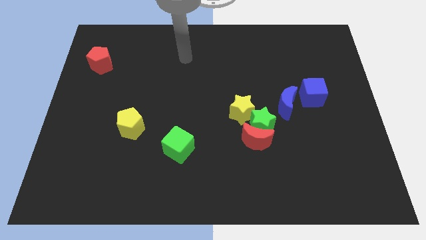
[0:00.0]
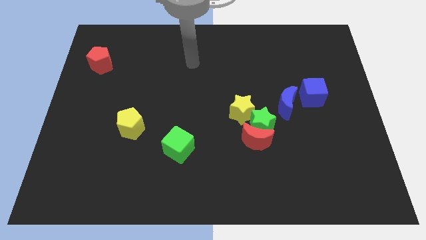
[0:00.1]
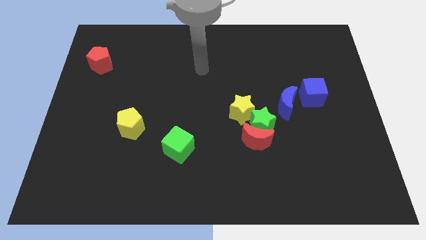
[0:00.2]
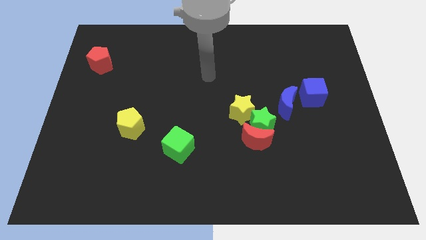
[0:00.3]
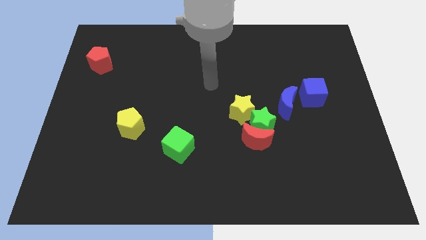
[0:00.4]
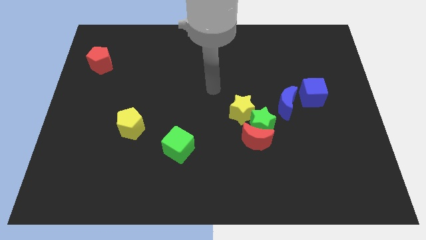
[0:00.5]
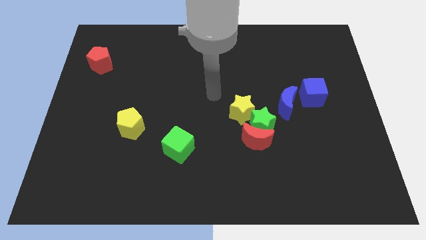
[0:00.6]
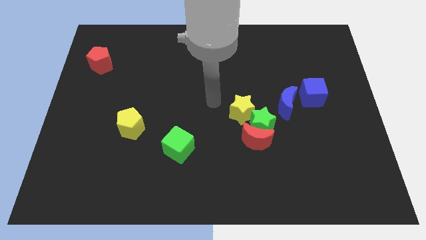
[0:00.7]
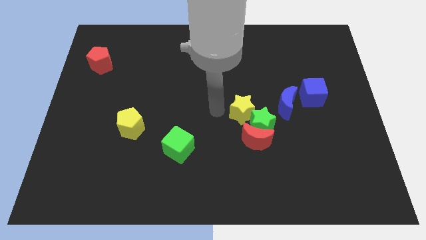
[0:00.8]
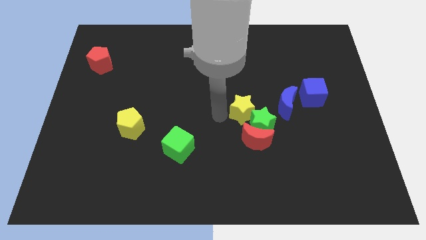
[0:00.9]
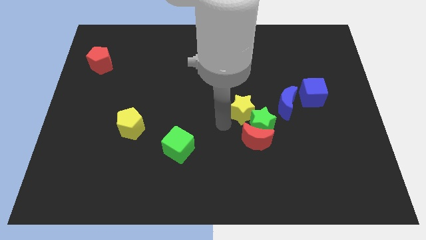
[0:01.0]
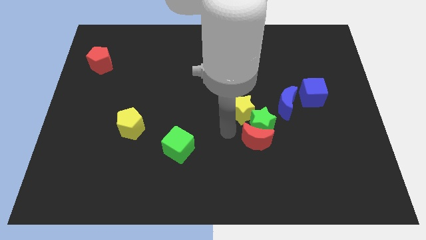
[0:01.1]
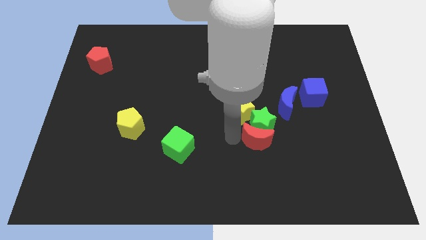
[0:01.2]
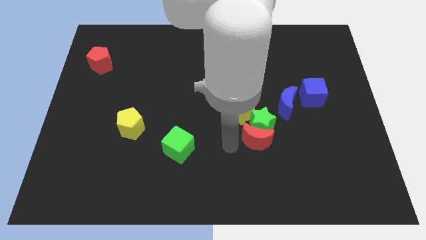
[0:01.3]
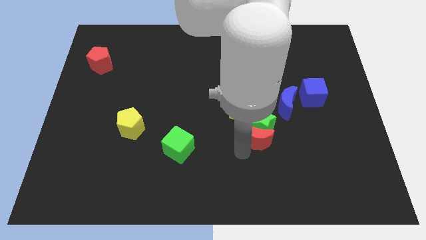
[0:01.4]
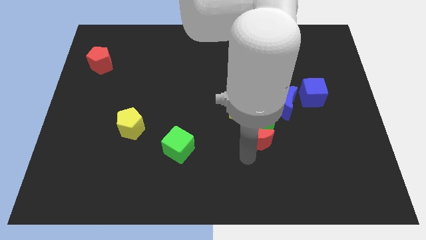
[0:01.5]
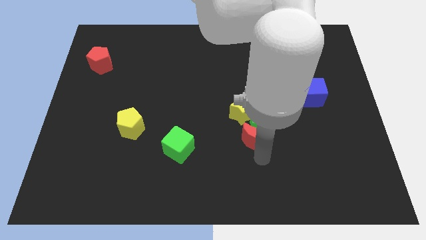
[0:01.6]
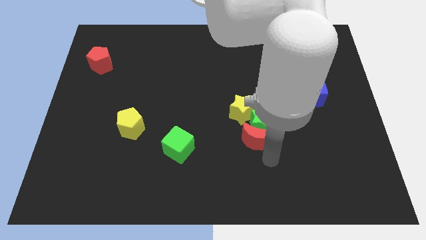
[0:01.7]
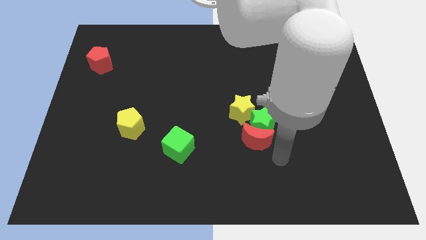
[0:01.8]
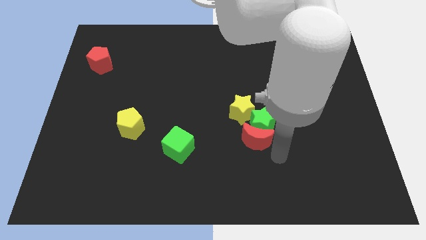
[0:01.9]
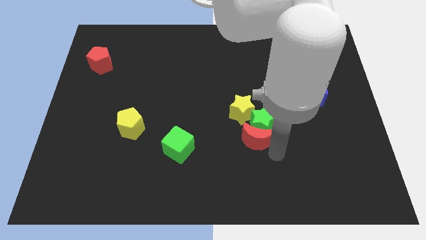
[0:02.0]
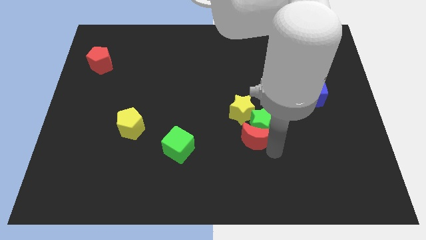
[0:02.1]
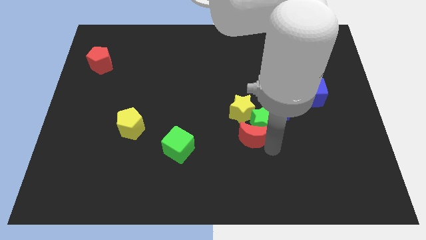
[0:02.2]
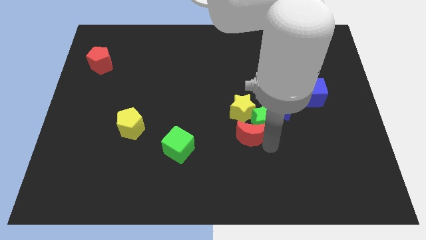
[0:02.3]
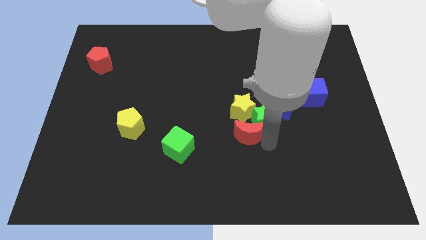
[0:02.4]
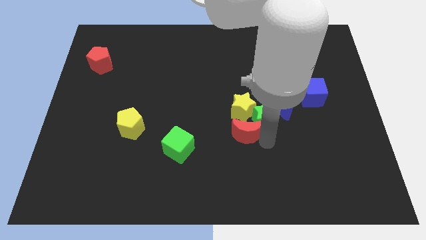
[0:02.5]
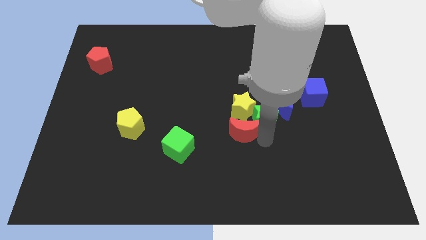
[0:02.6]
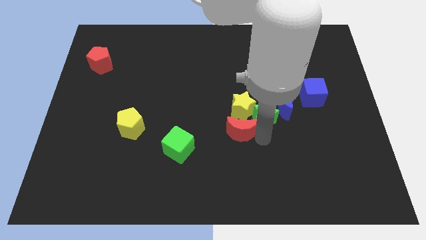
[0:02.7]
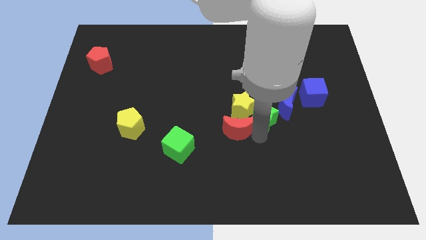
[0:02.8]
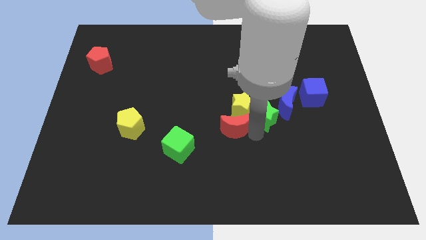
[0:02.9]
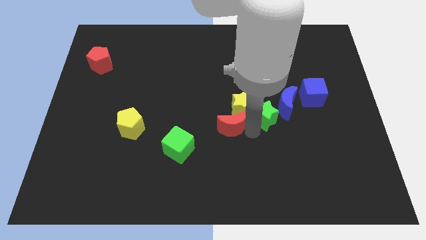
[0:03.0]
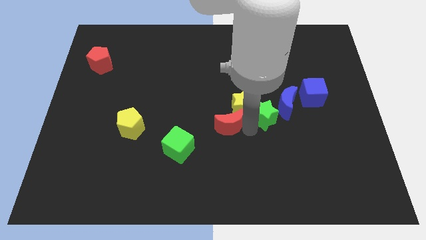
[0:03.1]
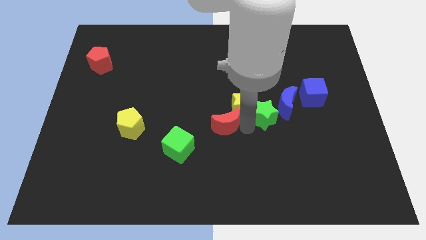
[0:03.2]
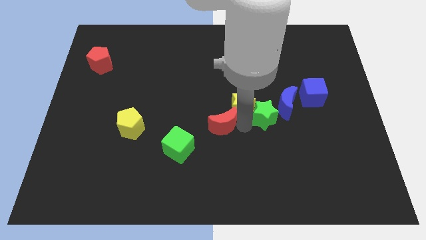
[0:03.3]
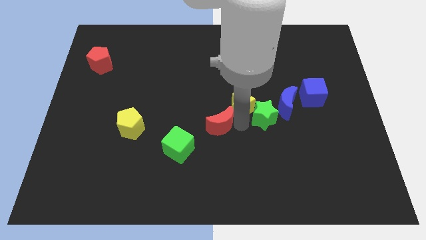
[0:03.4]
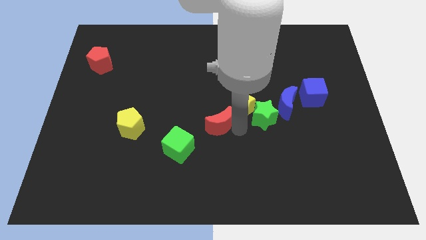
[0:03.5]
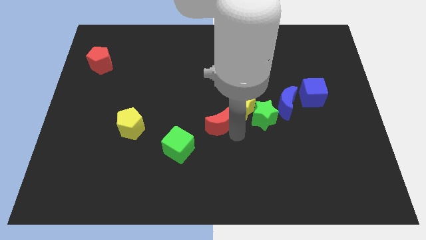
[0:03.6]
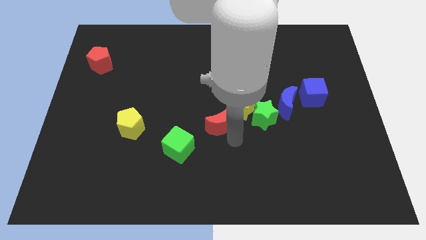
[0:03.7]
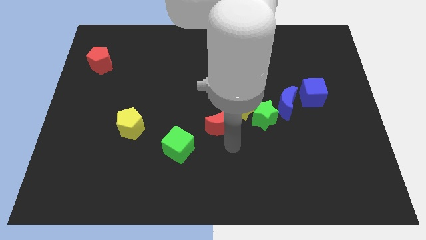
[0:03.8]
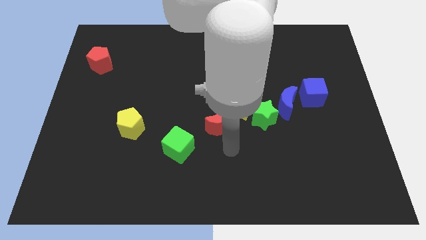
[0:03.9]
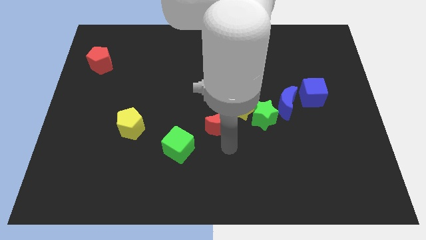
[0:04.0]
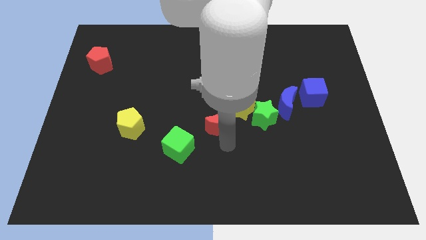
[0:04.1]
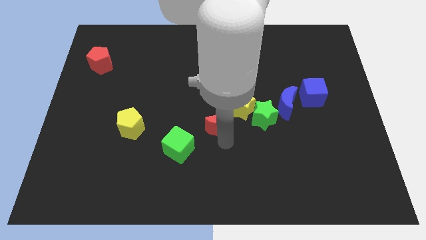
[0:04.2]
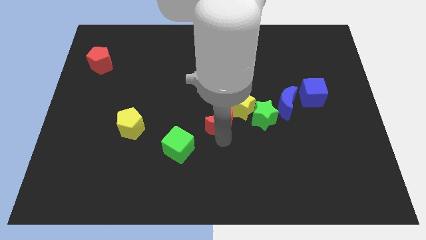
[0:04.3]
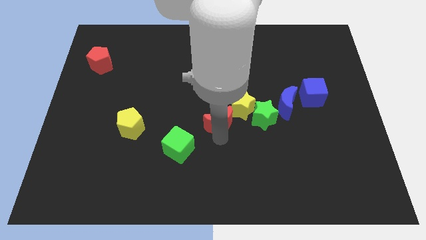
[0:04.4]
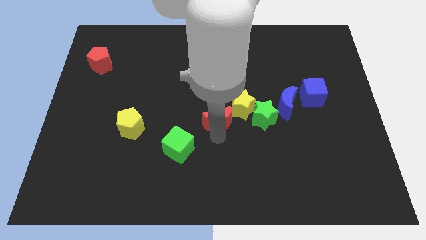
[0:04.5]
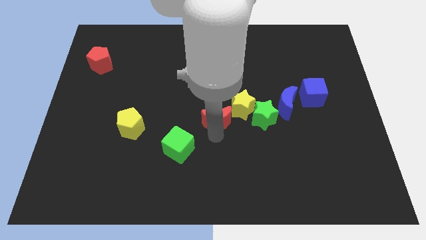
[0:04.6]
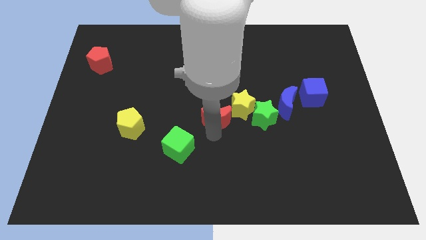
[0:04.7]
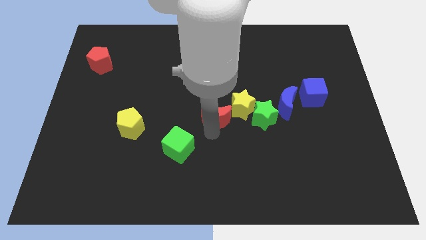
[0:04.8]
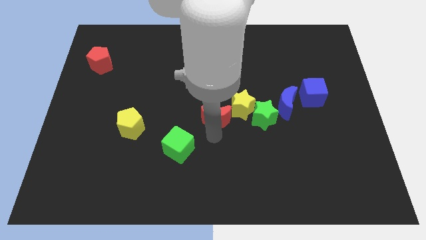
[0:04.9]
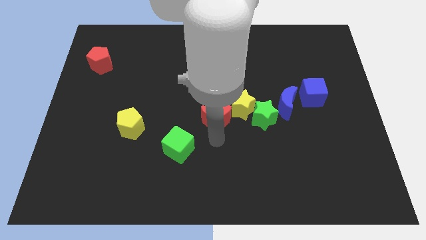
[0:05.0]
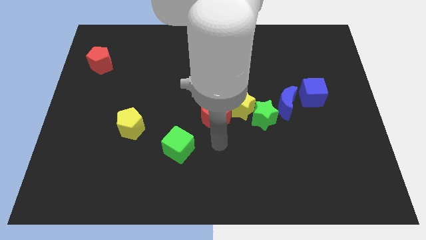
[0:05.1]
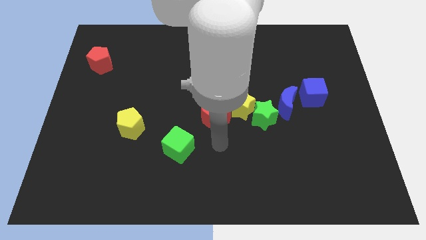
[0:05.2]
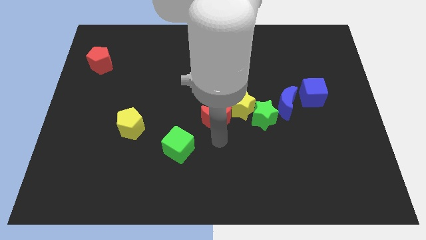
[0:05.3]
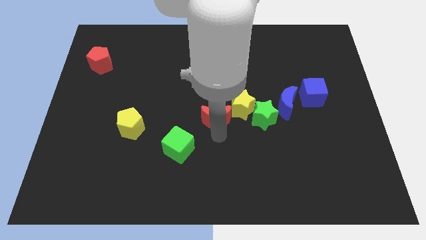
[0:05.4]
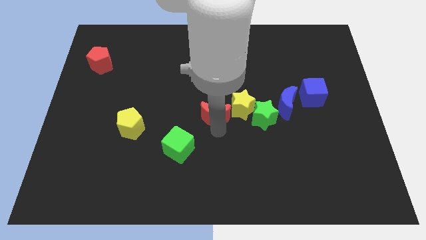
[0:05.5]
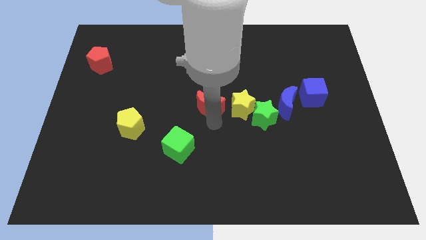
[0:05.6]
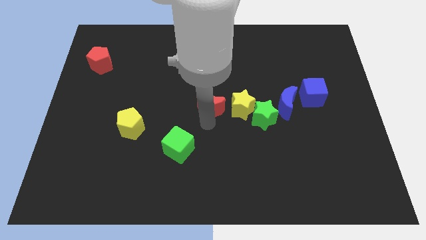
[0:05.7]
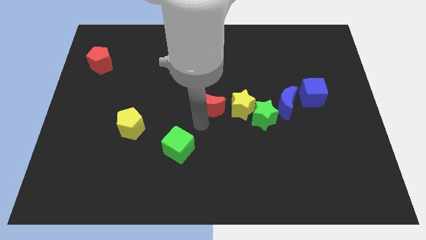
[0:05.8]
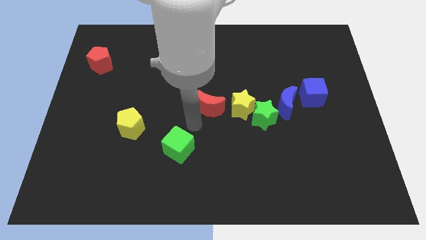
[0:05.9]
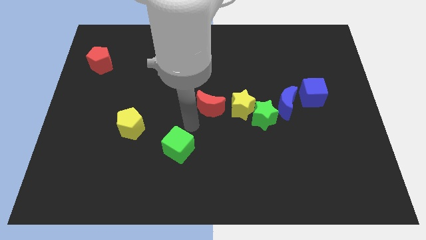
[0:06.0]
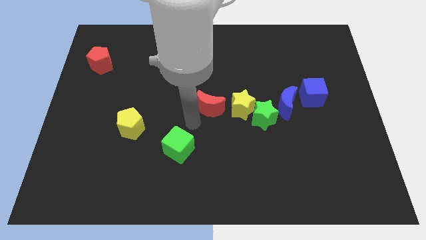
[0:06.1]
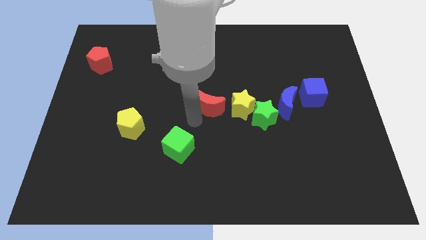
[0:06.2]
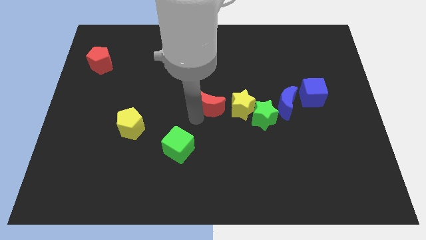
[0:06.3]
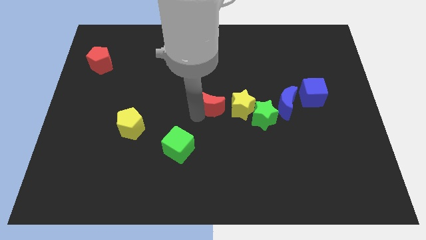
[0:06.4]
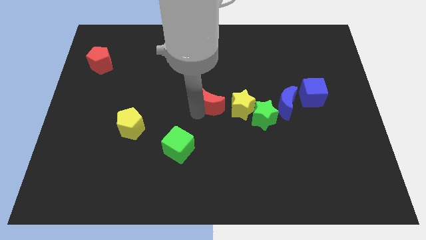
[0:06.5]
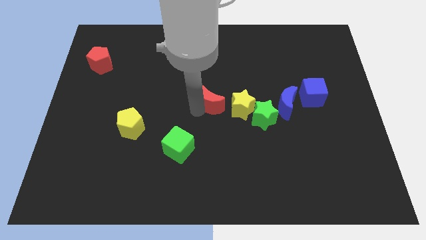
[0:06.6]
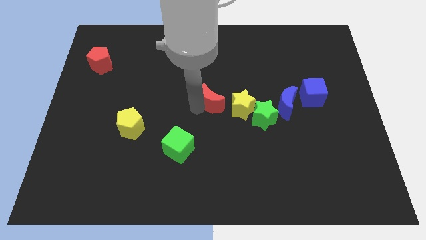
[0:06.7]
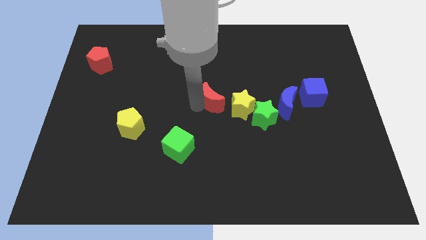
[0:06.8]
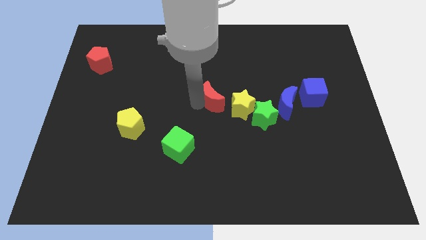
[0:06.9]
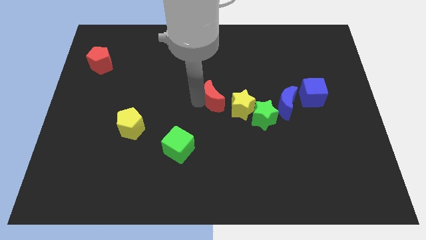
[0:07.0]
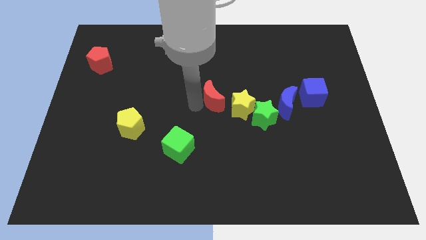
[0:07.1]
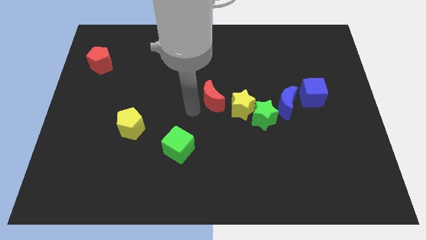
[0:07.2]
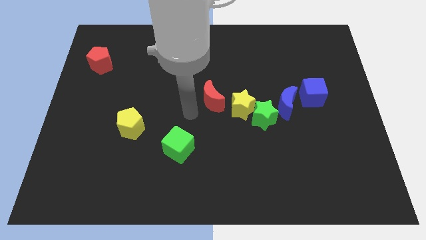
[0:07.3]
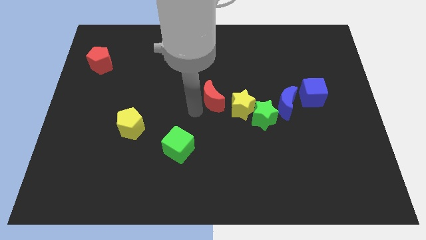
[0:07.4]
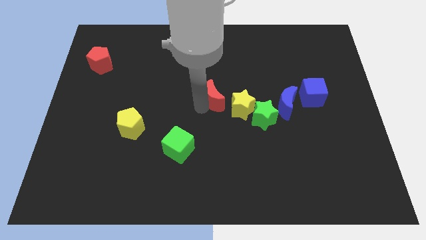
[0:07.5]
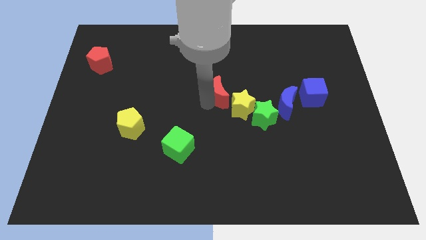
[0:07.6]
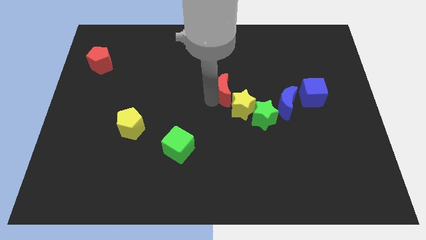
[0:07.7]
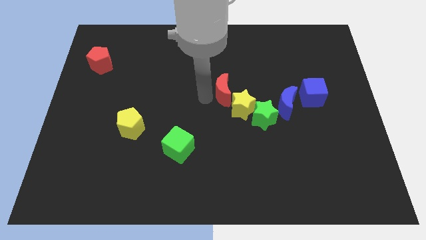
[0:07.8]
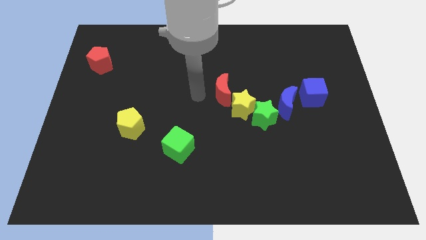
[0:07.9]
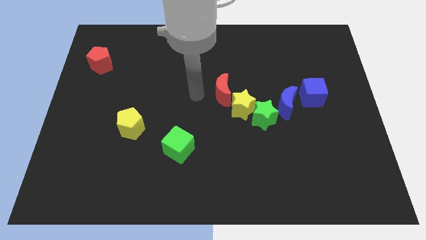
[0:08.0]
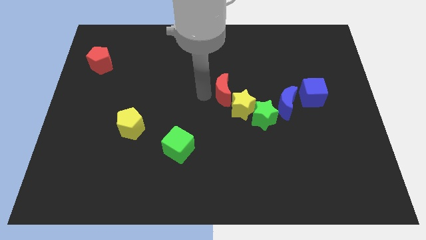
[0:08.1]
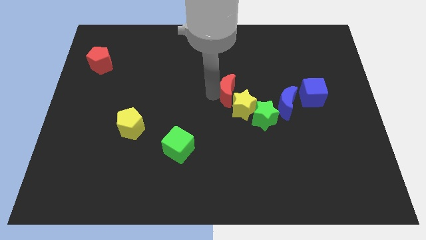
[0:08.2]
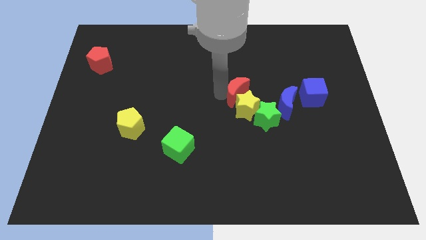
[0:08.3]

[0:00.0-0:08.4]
put the red moon to the top right of the yellow star
